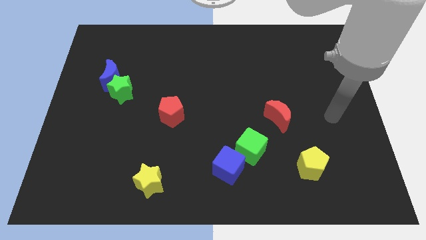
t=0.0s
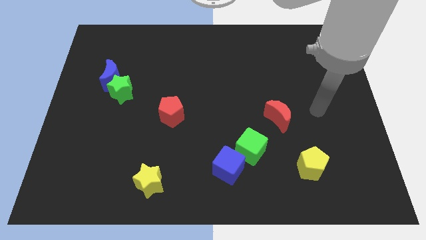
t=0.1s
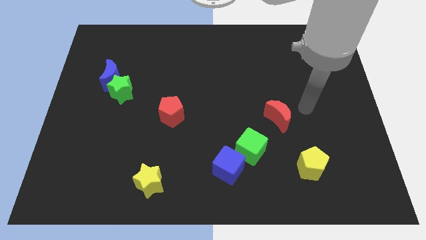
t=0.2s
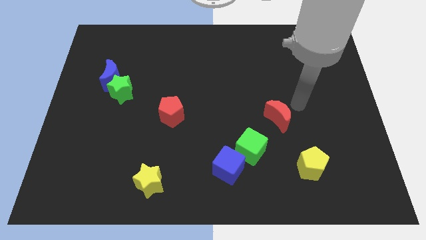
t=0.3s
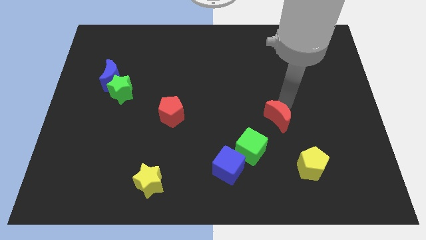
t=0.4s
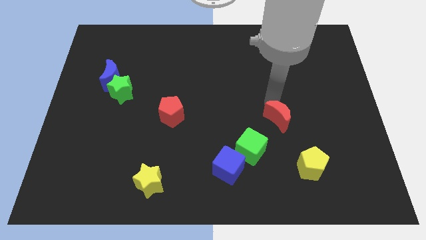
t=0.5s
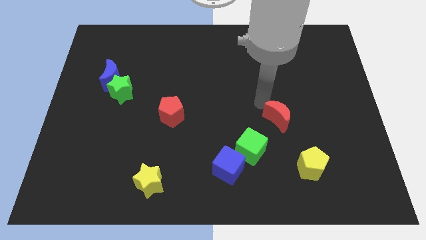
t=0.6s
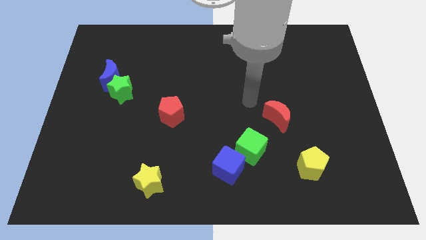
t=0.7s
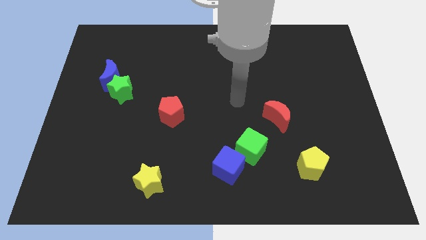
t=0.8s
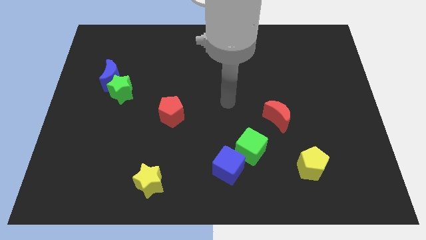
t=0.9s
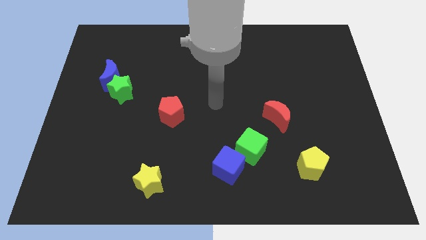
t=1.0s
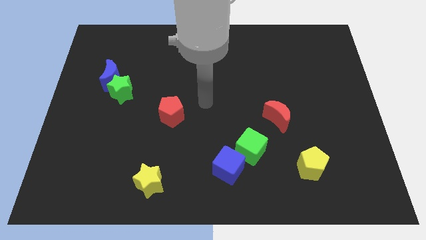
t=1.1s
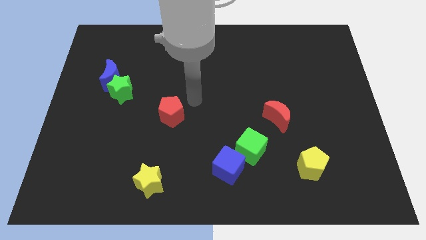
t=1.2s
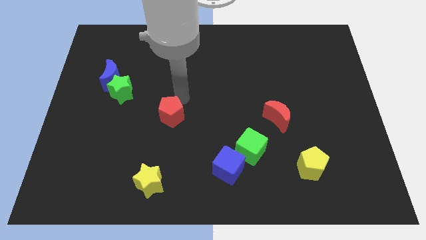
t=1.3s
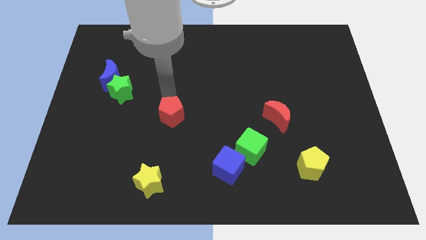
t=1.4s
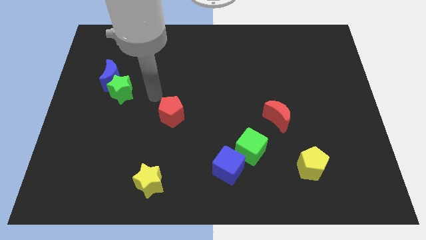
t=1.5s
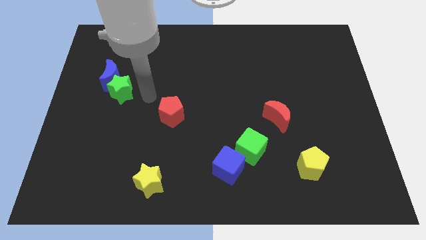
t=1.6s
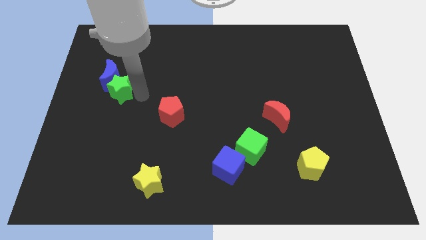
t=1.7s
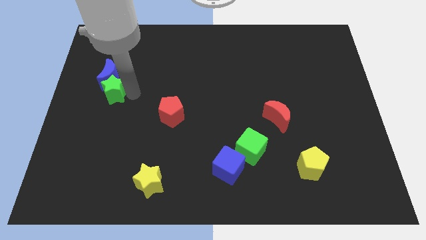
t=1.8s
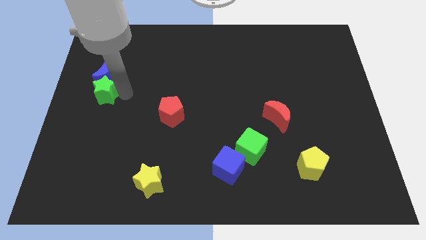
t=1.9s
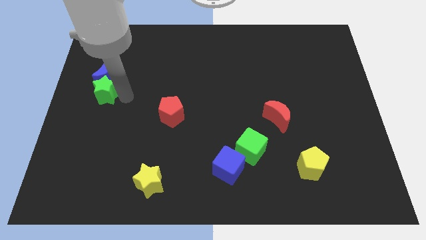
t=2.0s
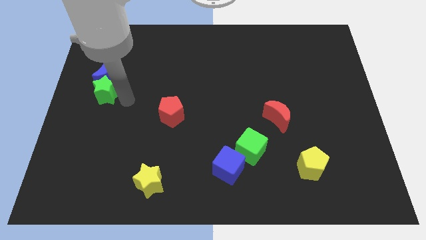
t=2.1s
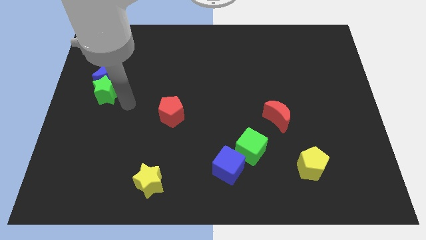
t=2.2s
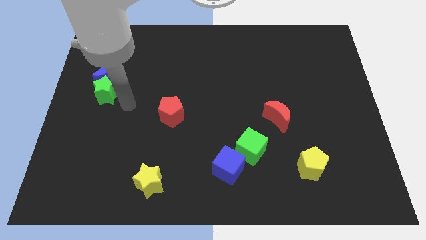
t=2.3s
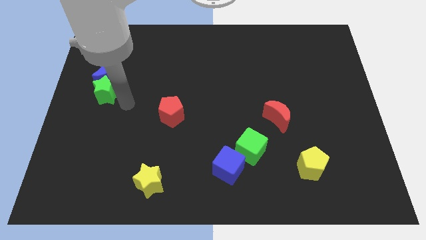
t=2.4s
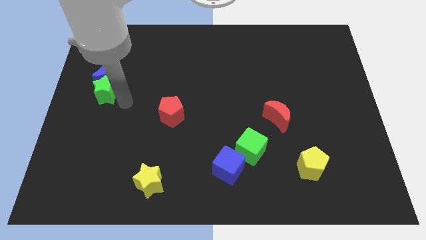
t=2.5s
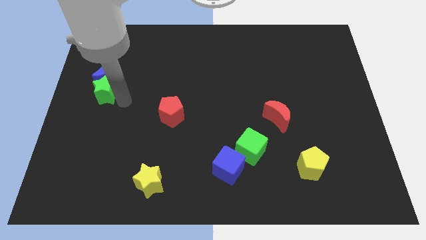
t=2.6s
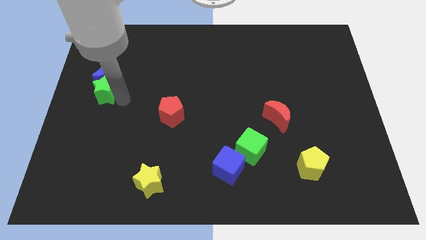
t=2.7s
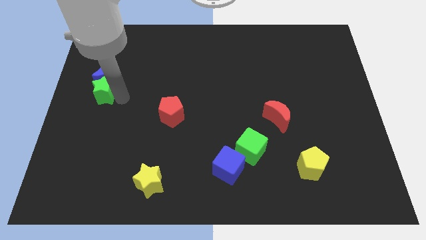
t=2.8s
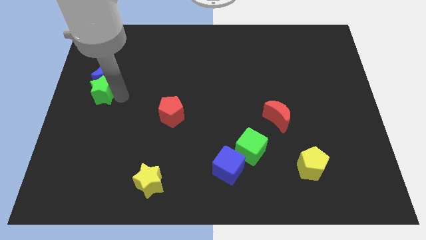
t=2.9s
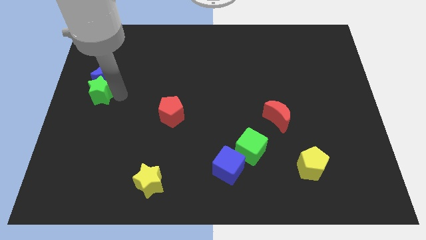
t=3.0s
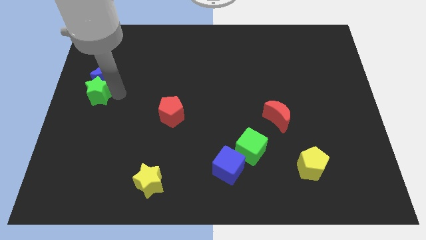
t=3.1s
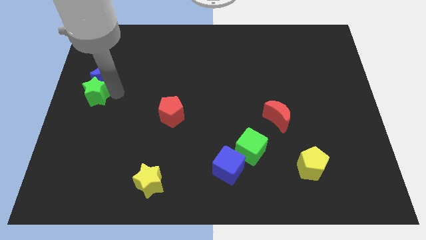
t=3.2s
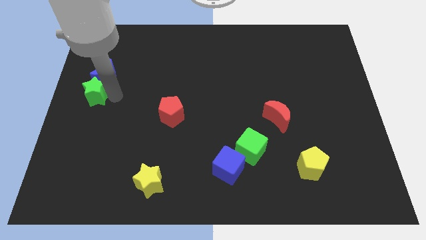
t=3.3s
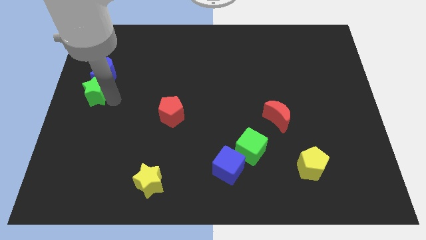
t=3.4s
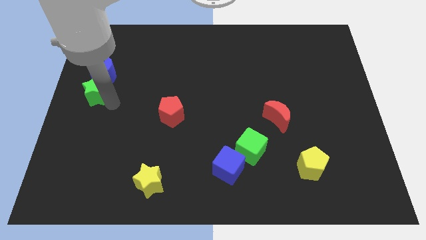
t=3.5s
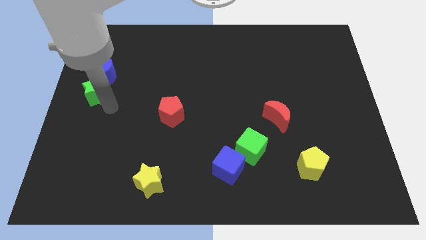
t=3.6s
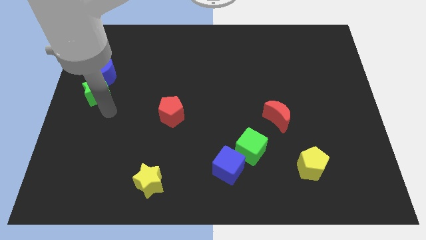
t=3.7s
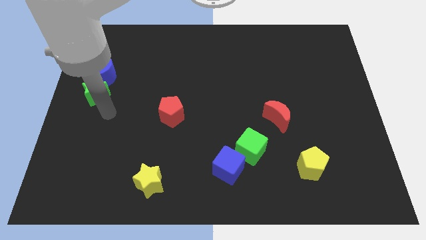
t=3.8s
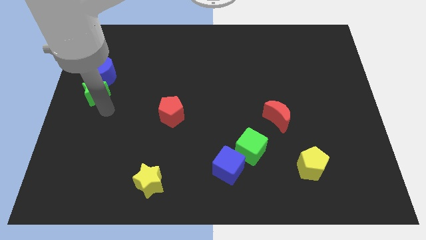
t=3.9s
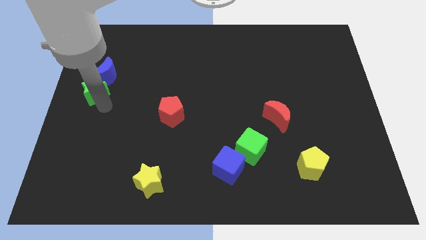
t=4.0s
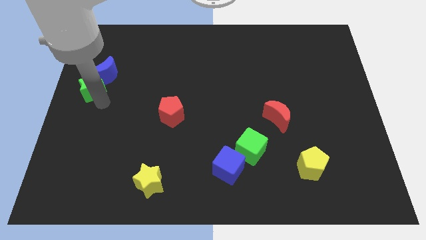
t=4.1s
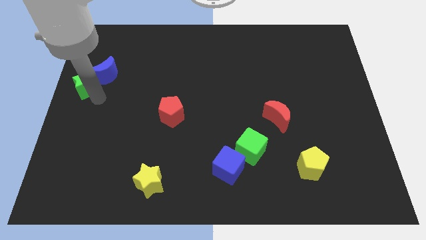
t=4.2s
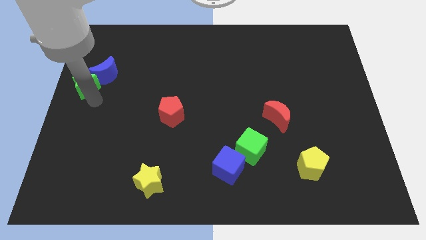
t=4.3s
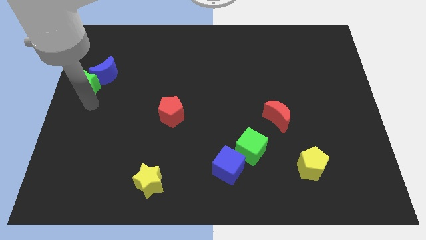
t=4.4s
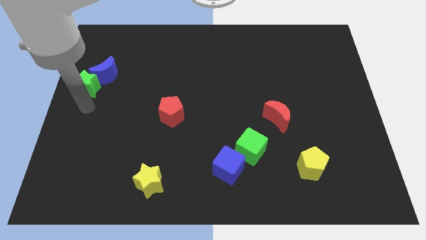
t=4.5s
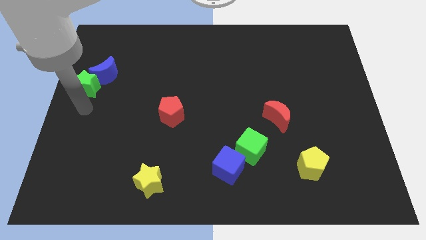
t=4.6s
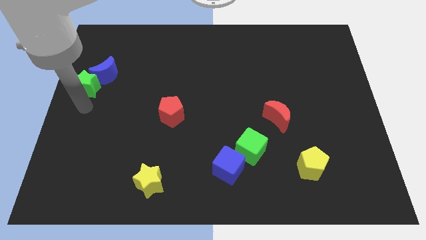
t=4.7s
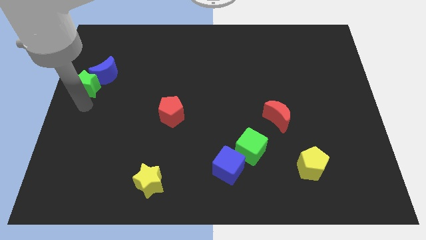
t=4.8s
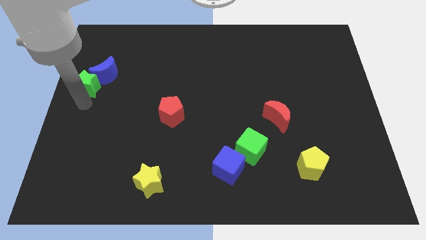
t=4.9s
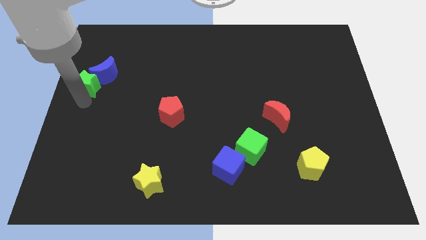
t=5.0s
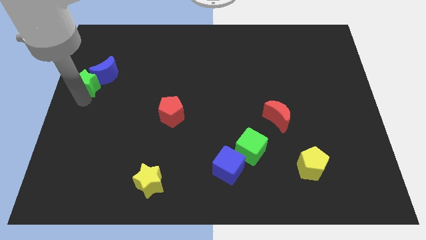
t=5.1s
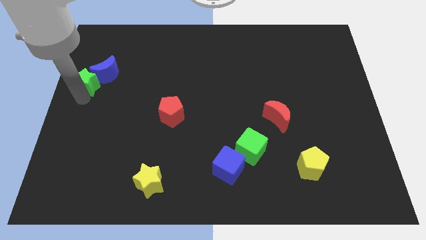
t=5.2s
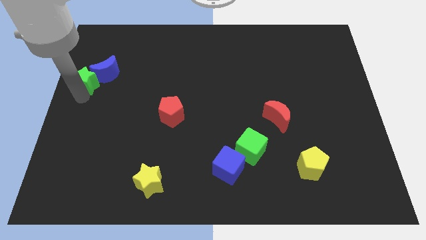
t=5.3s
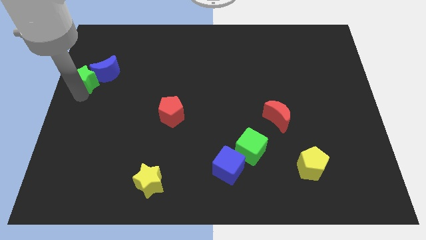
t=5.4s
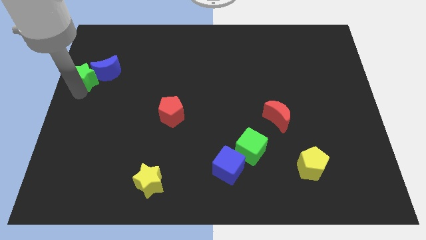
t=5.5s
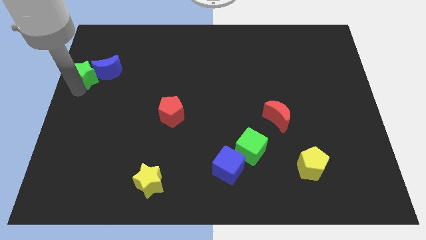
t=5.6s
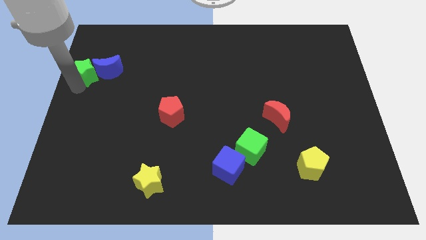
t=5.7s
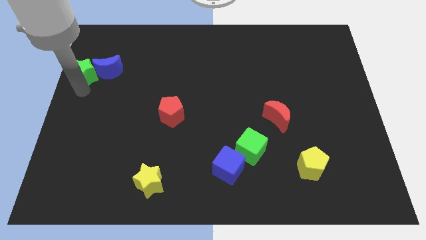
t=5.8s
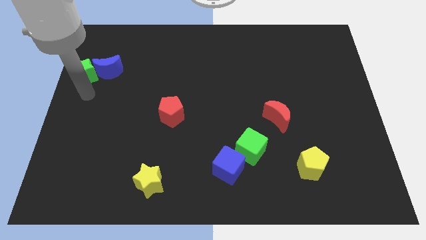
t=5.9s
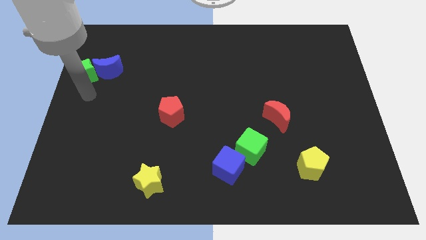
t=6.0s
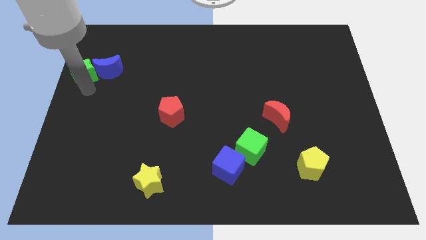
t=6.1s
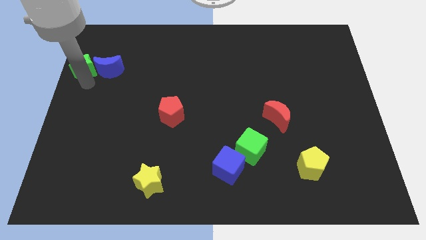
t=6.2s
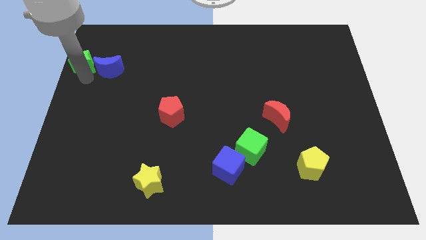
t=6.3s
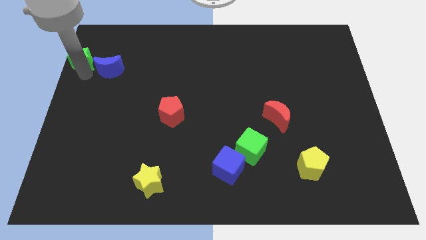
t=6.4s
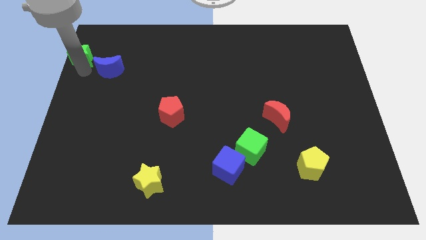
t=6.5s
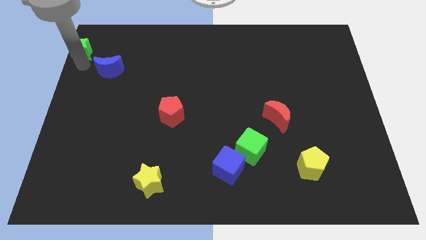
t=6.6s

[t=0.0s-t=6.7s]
put the green star to the upper left corner
